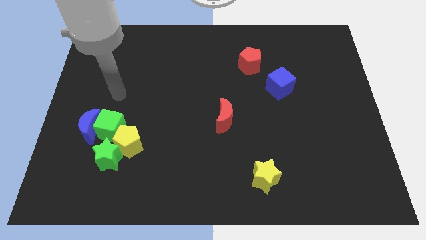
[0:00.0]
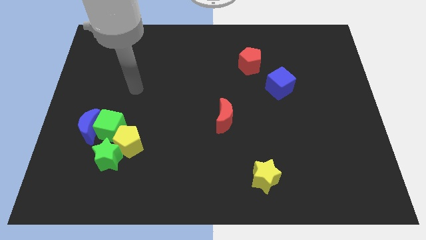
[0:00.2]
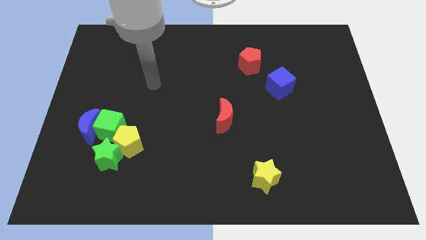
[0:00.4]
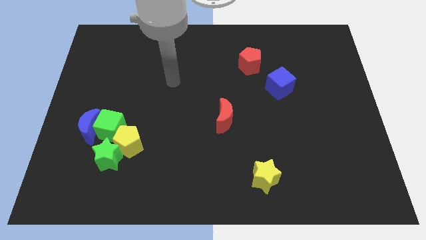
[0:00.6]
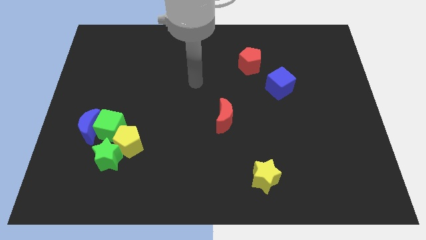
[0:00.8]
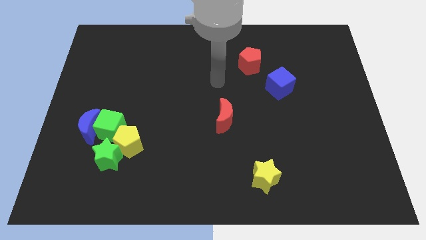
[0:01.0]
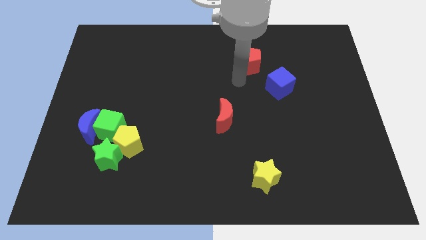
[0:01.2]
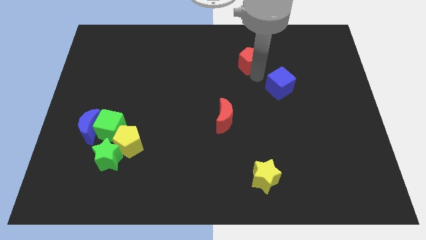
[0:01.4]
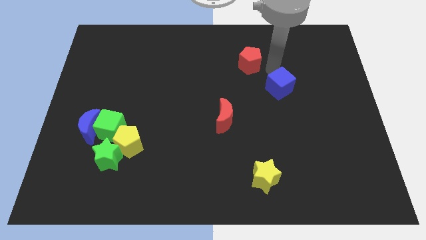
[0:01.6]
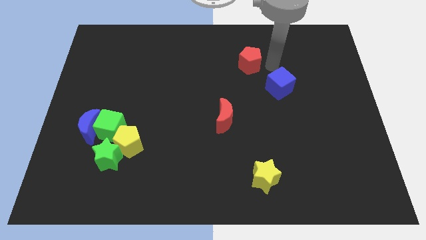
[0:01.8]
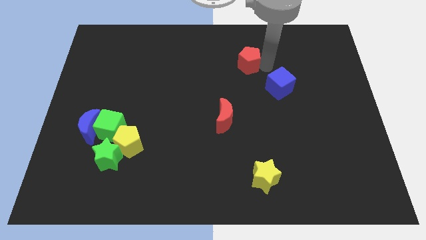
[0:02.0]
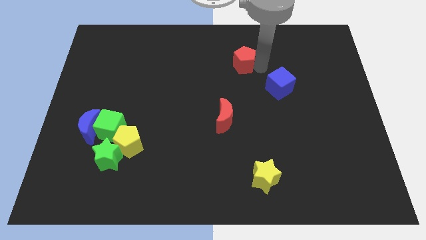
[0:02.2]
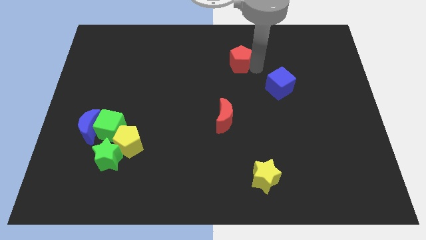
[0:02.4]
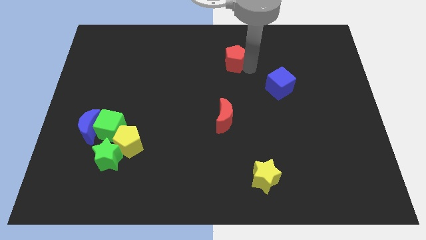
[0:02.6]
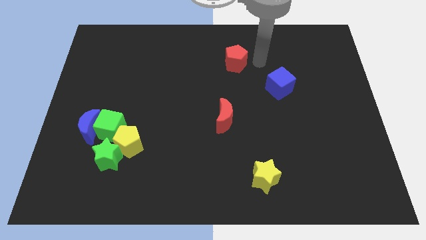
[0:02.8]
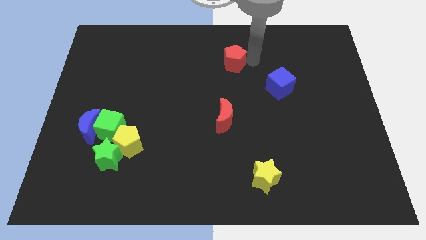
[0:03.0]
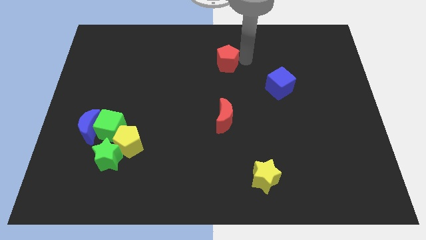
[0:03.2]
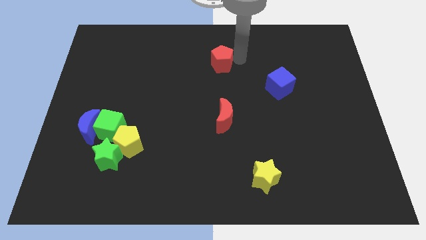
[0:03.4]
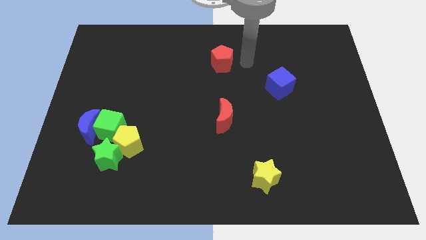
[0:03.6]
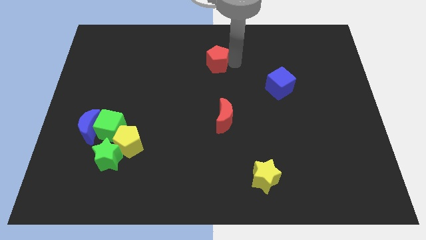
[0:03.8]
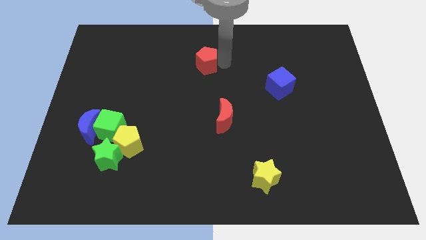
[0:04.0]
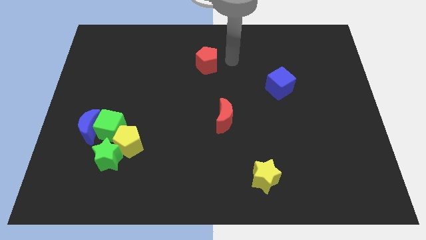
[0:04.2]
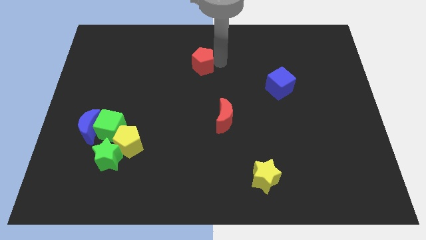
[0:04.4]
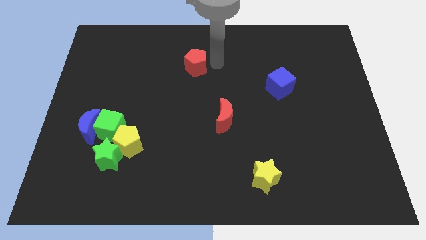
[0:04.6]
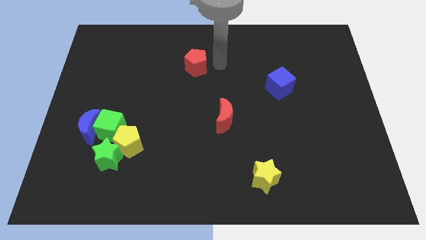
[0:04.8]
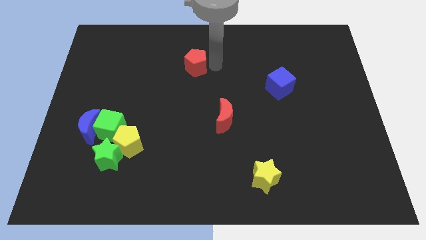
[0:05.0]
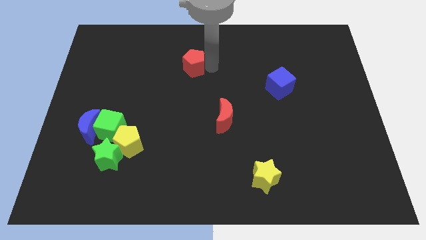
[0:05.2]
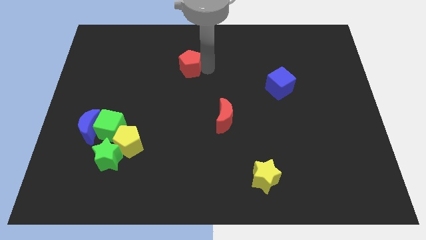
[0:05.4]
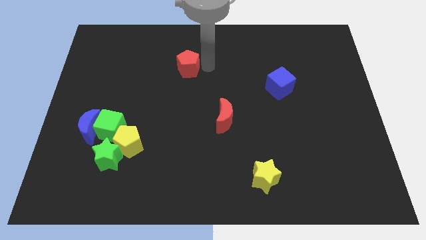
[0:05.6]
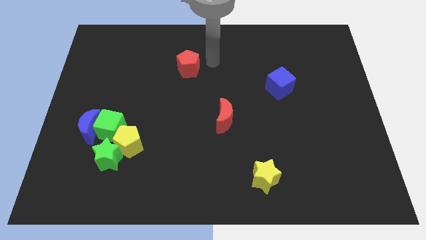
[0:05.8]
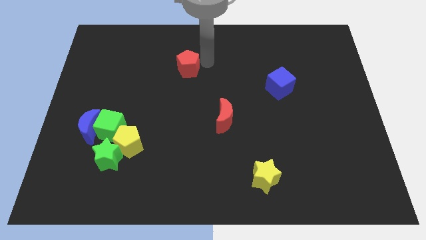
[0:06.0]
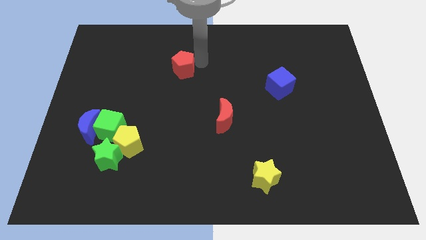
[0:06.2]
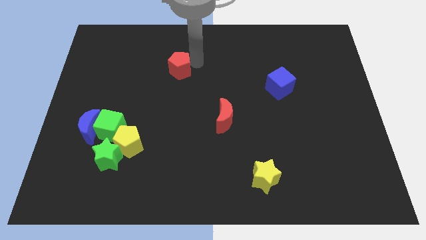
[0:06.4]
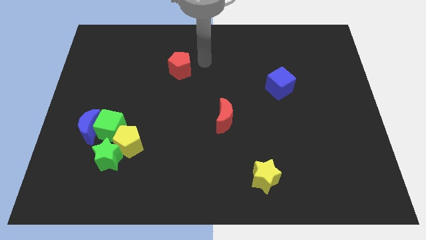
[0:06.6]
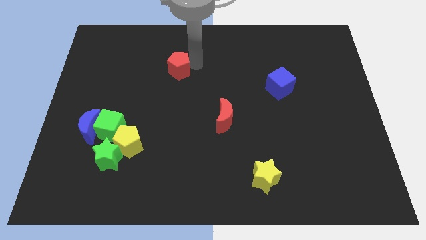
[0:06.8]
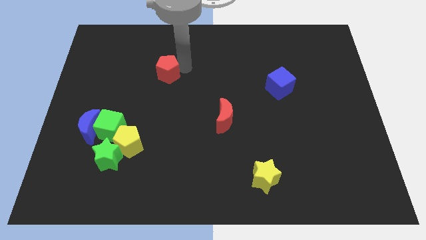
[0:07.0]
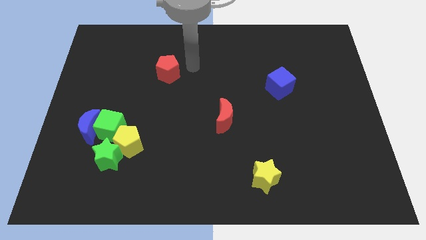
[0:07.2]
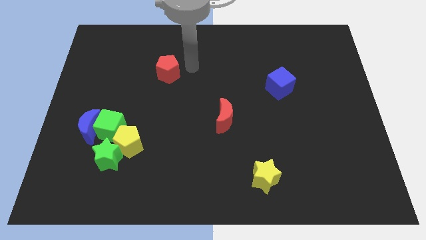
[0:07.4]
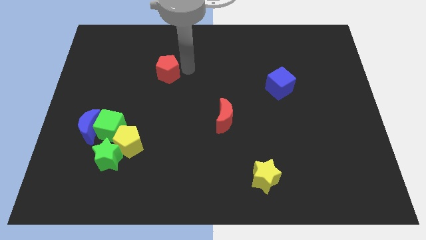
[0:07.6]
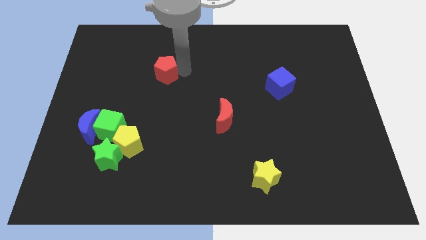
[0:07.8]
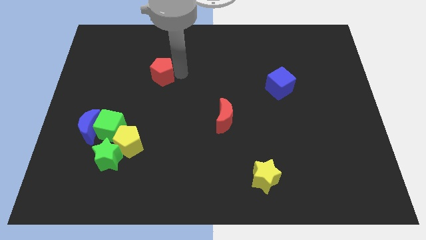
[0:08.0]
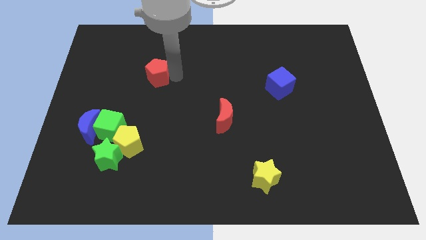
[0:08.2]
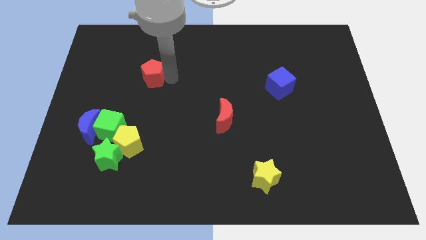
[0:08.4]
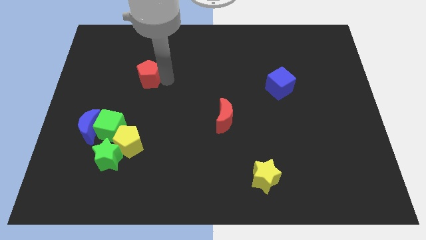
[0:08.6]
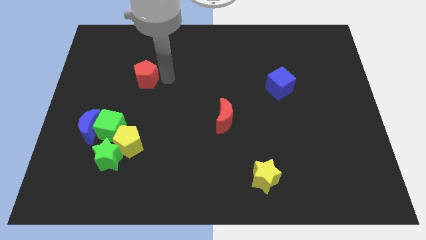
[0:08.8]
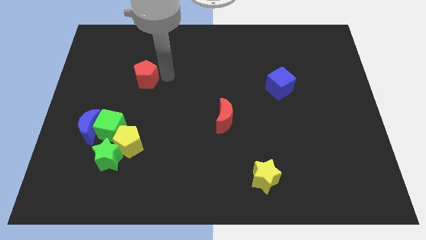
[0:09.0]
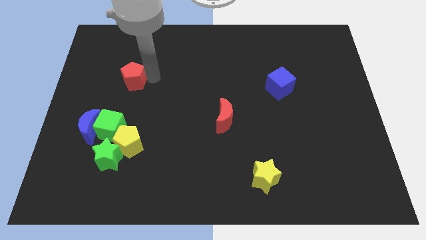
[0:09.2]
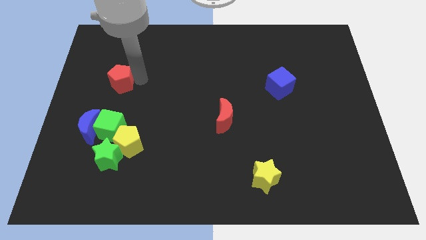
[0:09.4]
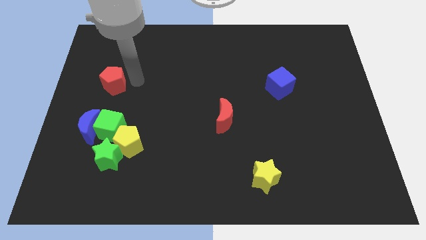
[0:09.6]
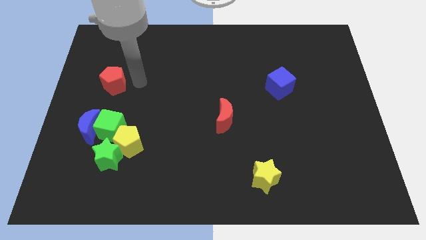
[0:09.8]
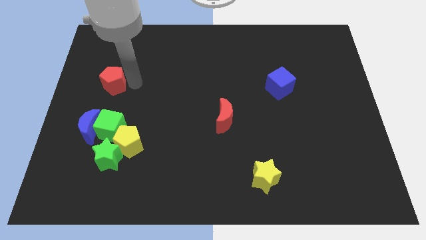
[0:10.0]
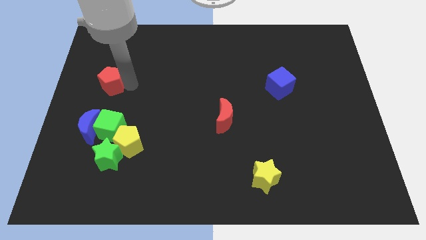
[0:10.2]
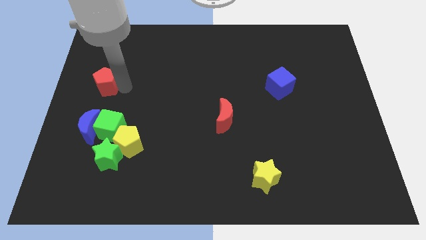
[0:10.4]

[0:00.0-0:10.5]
put the red pentagon to the left side

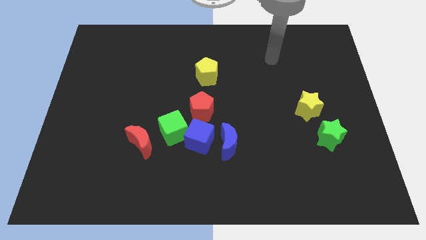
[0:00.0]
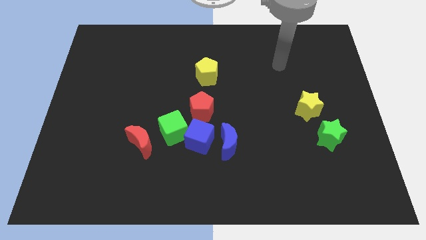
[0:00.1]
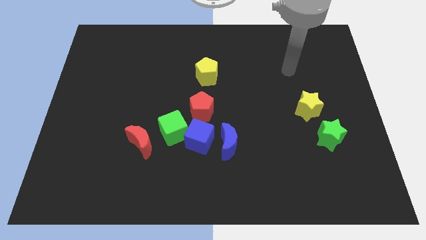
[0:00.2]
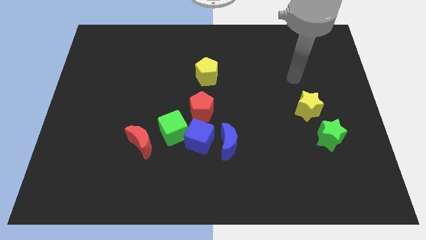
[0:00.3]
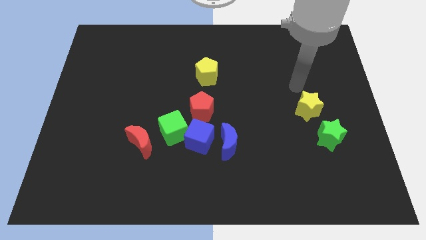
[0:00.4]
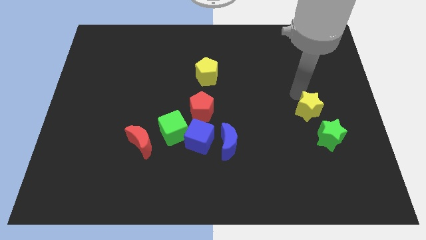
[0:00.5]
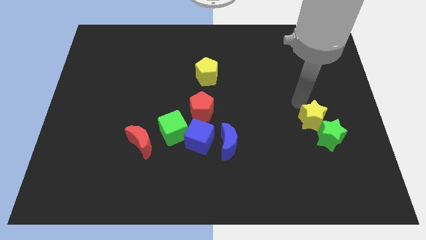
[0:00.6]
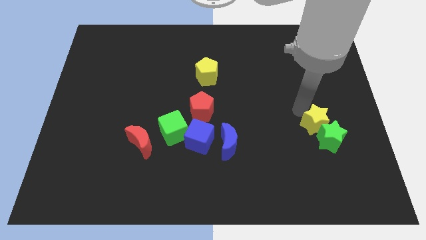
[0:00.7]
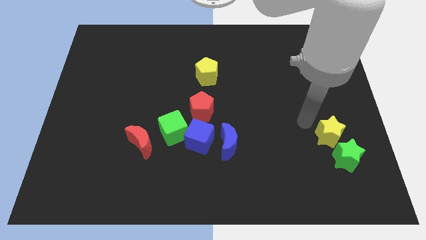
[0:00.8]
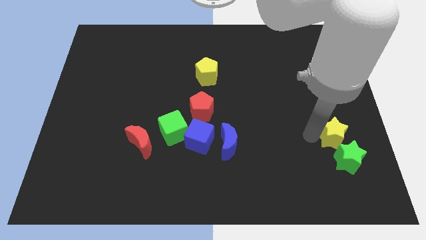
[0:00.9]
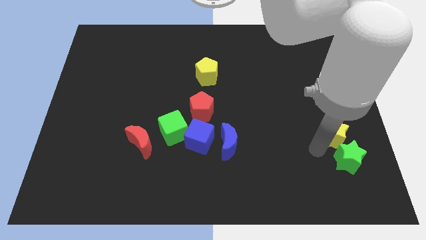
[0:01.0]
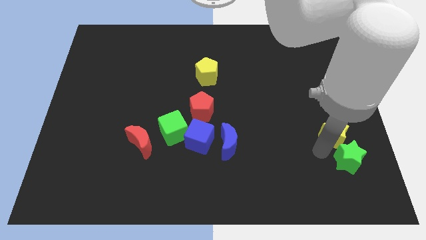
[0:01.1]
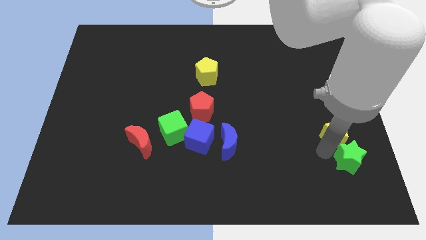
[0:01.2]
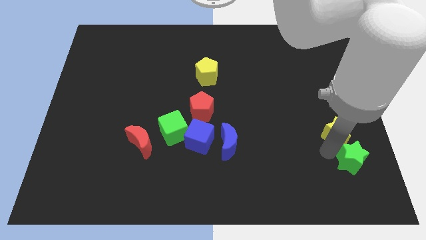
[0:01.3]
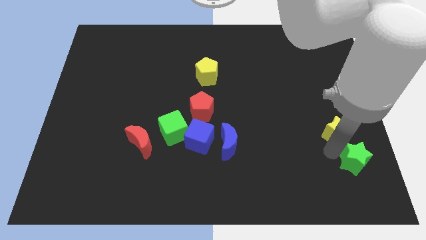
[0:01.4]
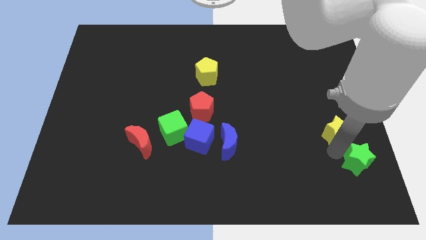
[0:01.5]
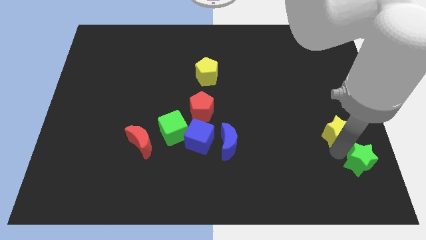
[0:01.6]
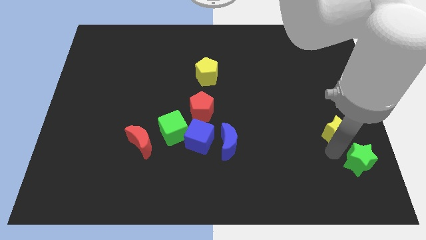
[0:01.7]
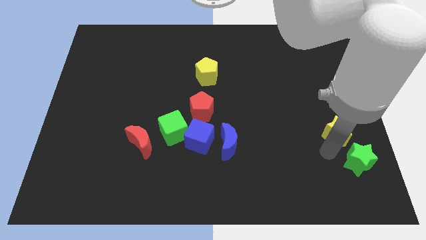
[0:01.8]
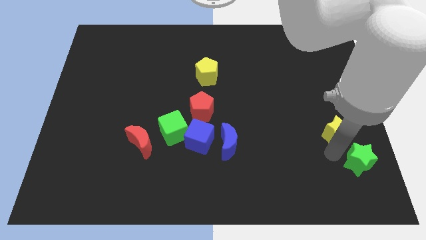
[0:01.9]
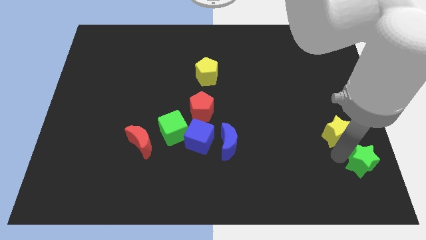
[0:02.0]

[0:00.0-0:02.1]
move the green star to the bottom right of the board
